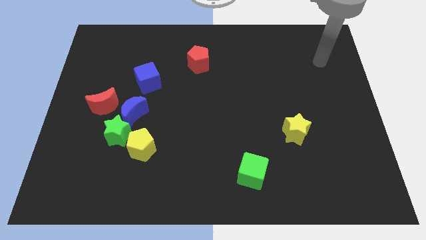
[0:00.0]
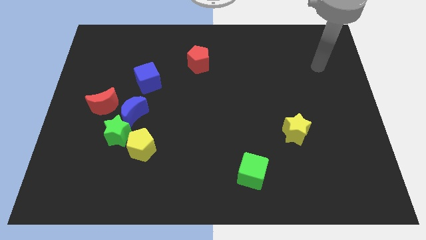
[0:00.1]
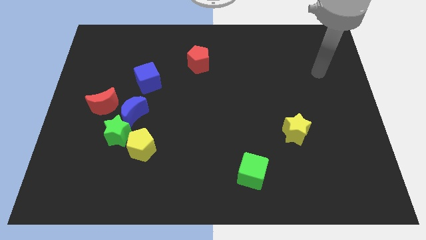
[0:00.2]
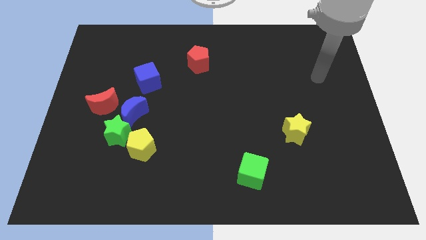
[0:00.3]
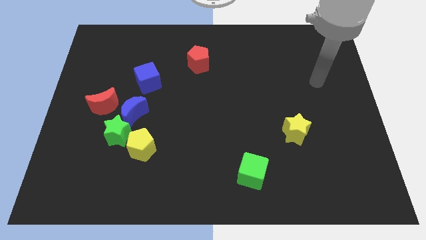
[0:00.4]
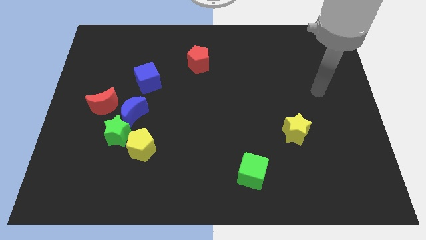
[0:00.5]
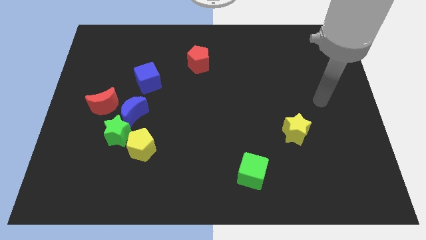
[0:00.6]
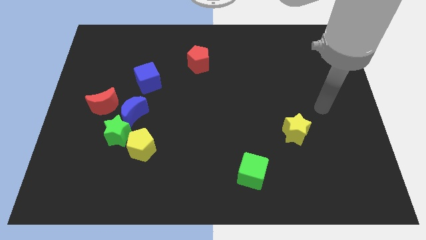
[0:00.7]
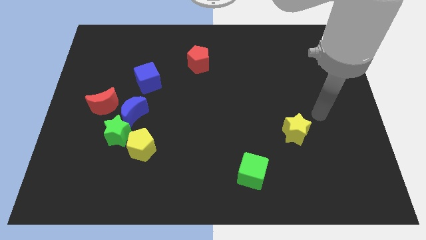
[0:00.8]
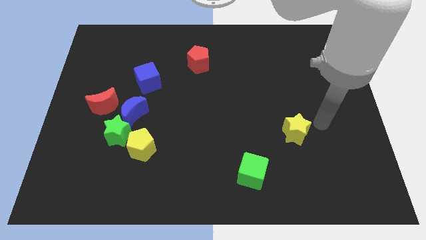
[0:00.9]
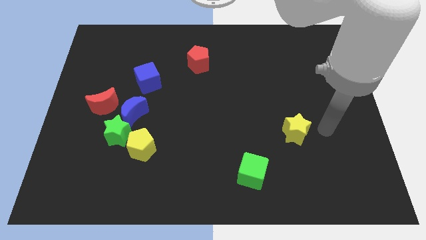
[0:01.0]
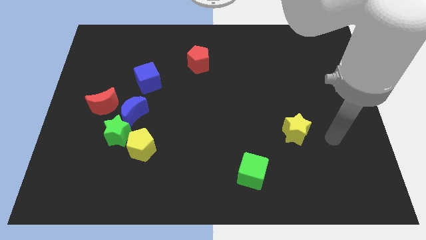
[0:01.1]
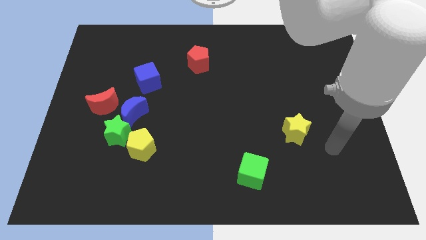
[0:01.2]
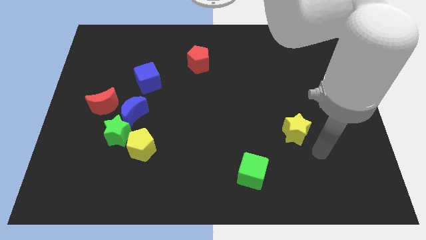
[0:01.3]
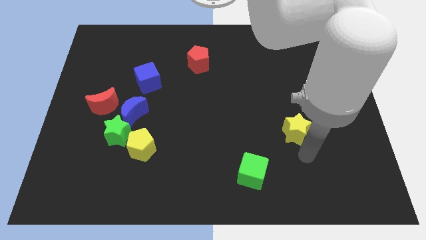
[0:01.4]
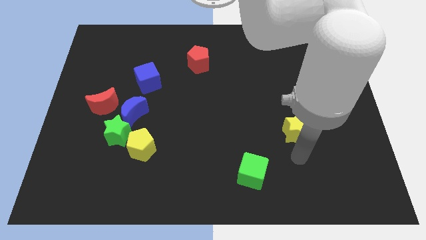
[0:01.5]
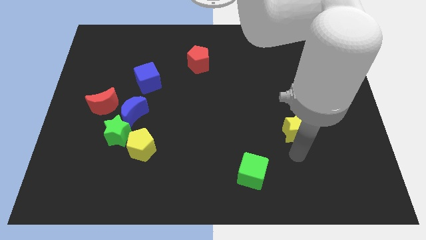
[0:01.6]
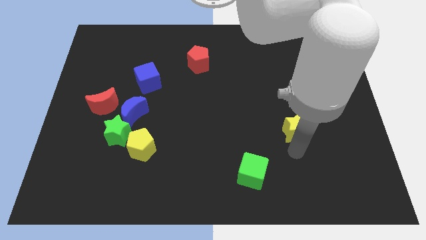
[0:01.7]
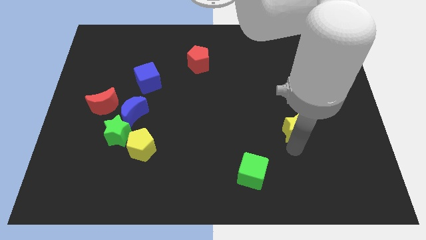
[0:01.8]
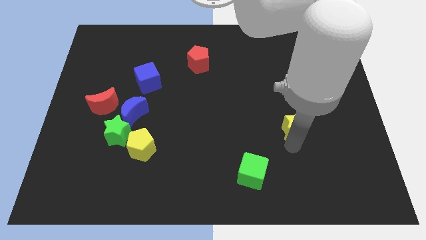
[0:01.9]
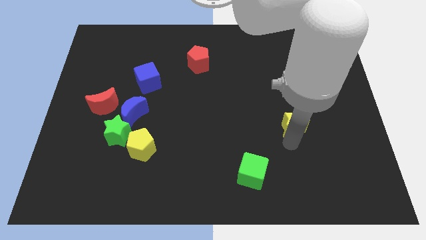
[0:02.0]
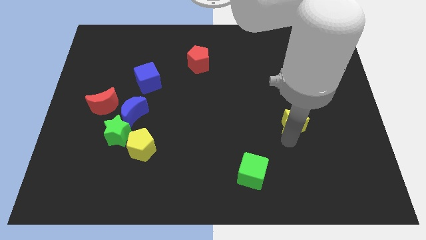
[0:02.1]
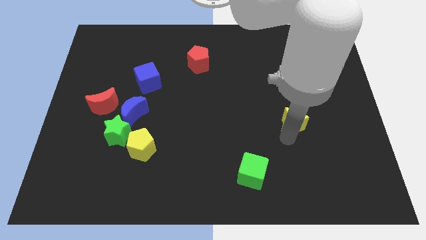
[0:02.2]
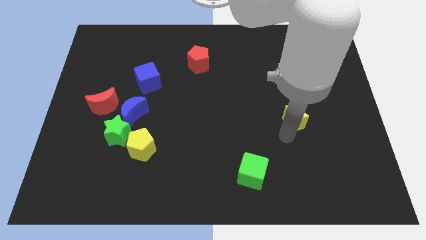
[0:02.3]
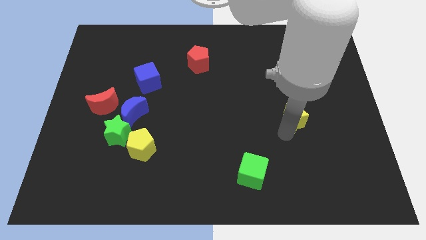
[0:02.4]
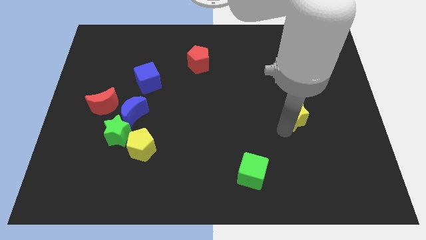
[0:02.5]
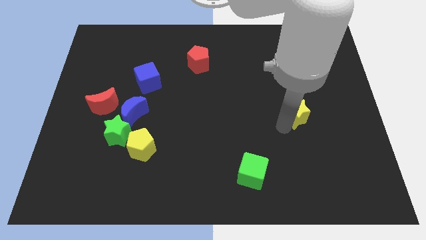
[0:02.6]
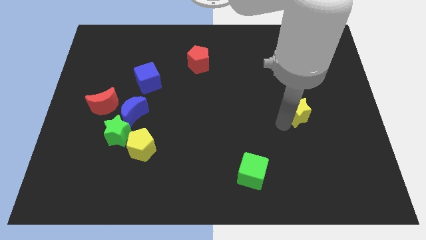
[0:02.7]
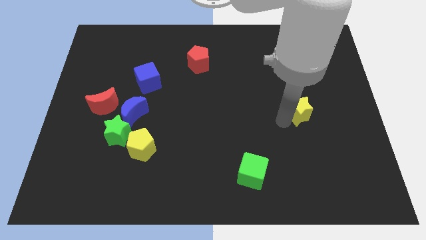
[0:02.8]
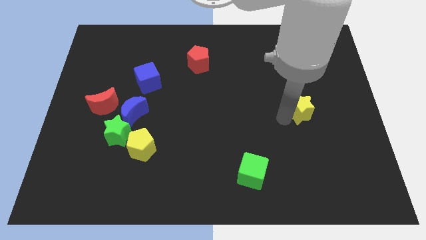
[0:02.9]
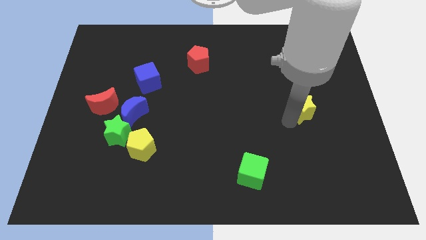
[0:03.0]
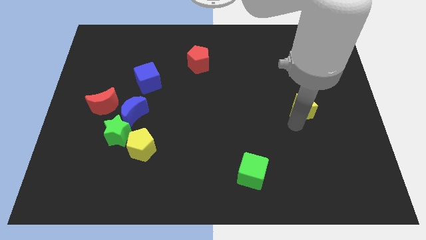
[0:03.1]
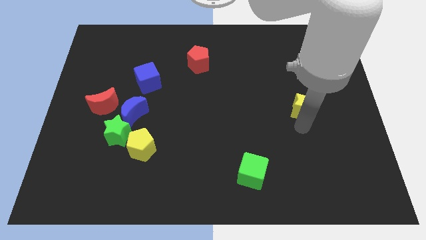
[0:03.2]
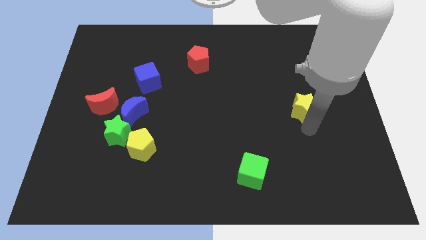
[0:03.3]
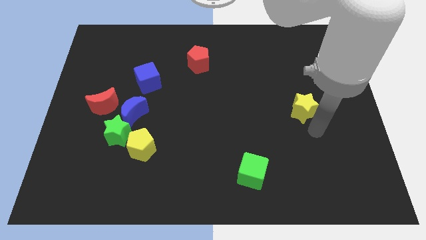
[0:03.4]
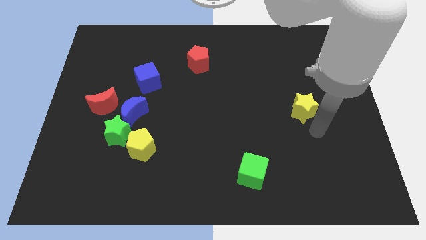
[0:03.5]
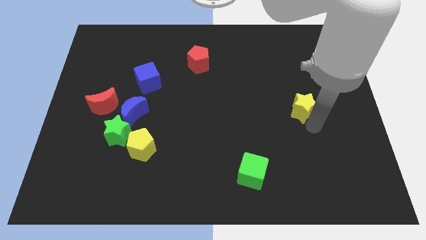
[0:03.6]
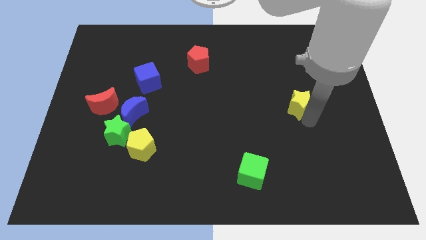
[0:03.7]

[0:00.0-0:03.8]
slightly slide the yellow star up

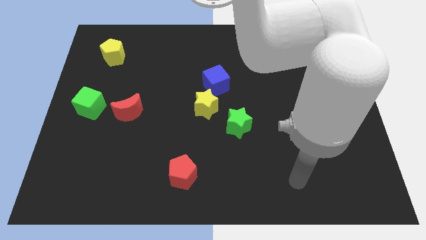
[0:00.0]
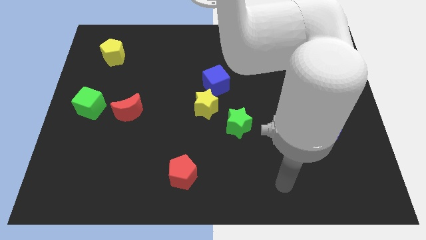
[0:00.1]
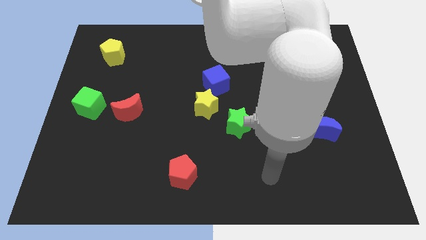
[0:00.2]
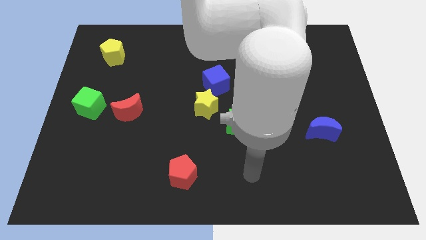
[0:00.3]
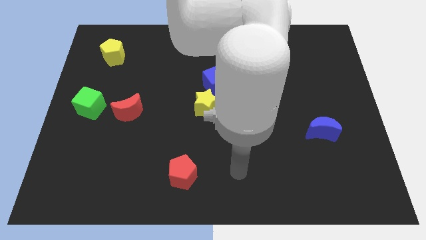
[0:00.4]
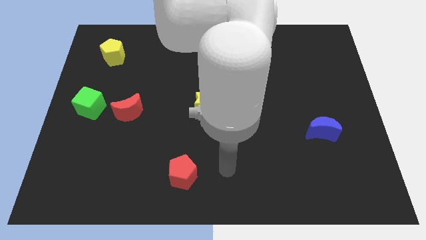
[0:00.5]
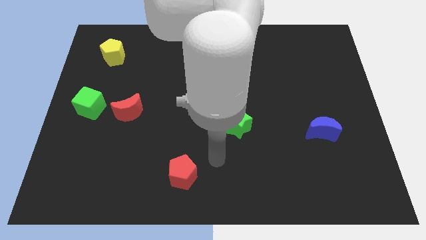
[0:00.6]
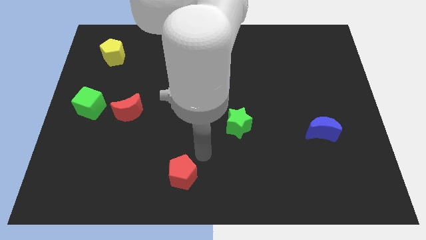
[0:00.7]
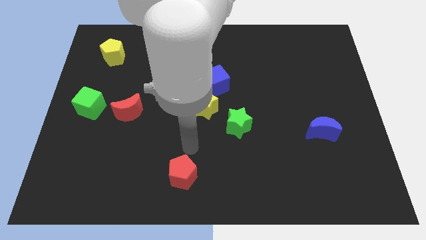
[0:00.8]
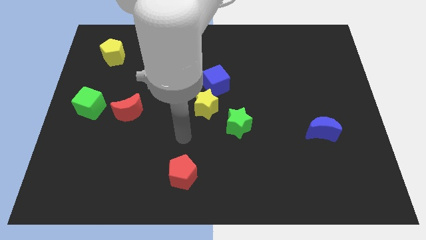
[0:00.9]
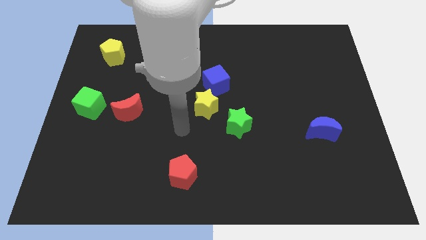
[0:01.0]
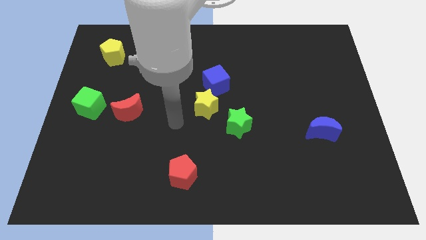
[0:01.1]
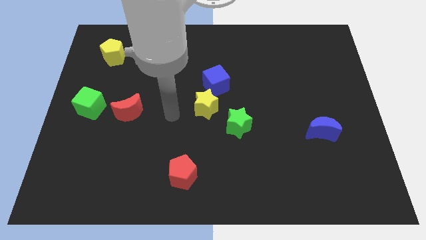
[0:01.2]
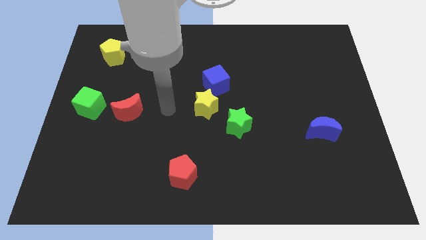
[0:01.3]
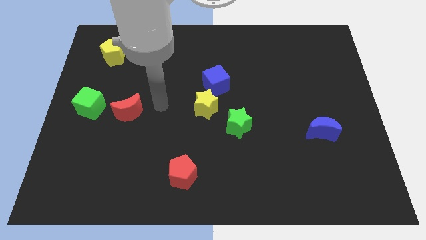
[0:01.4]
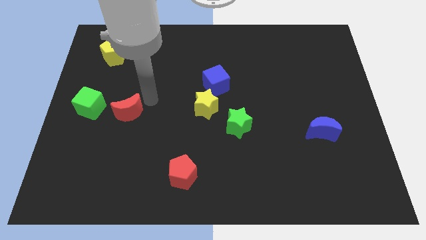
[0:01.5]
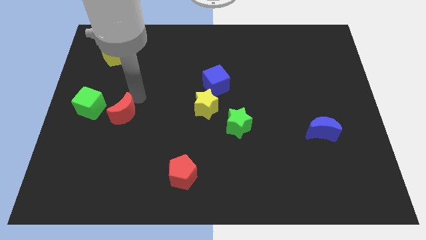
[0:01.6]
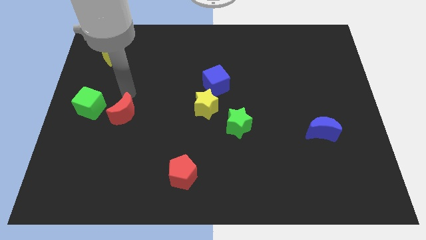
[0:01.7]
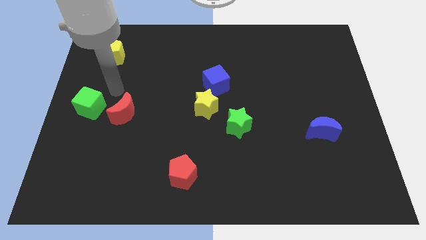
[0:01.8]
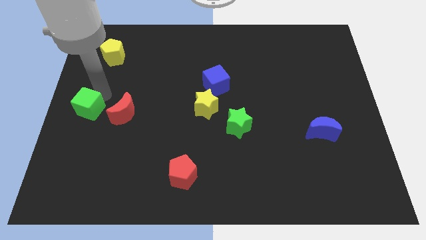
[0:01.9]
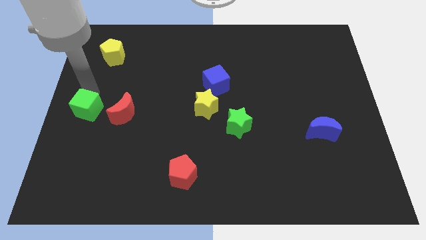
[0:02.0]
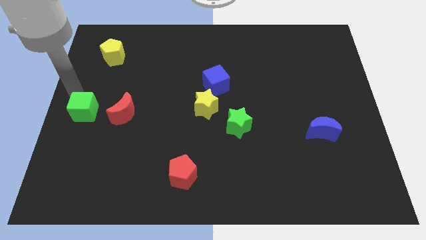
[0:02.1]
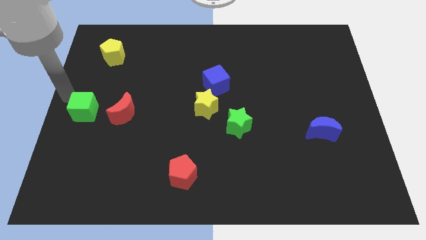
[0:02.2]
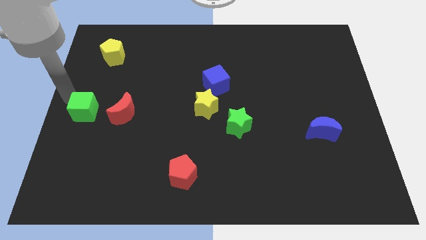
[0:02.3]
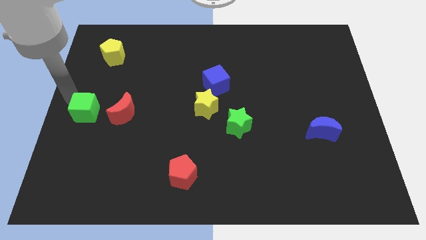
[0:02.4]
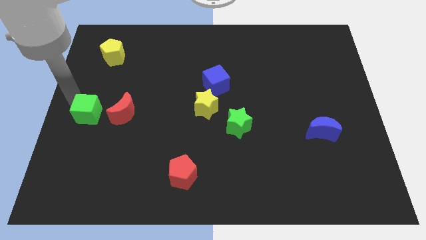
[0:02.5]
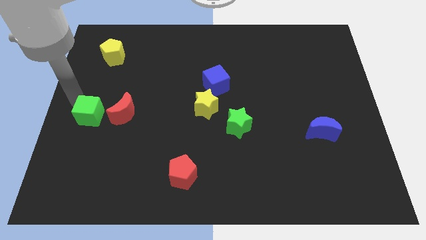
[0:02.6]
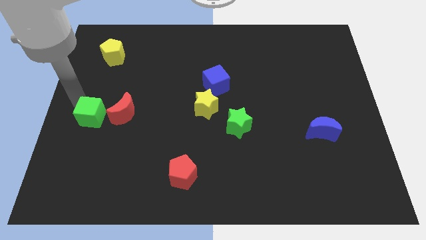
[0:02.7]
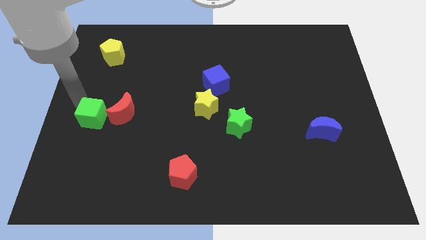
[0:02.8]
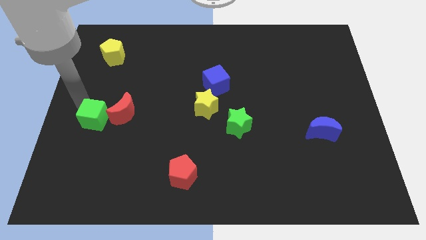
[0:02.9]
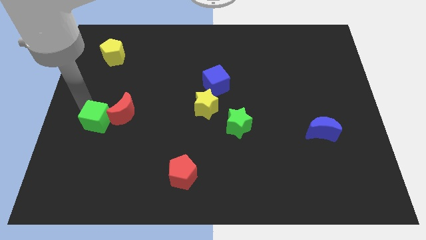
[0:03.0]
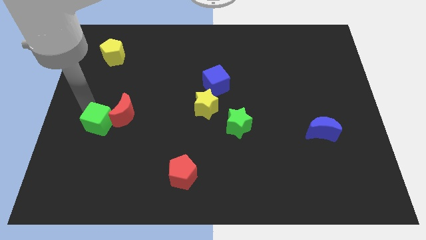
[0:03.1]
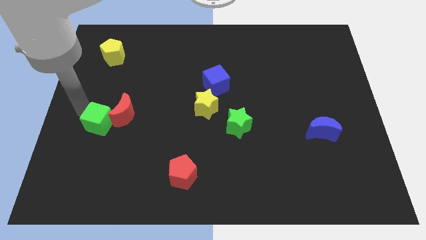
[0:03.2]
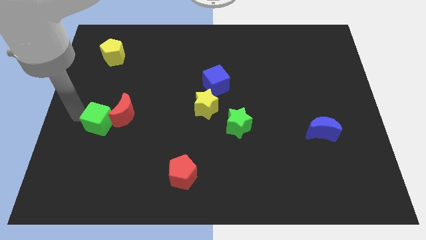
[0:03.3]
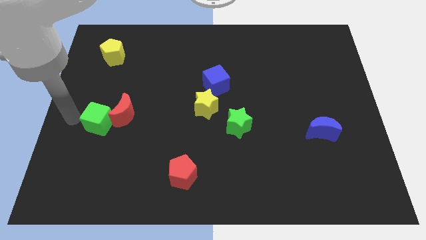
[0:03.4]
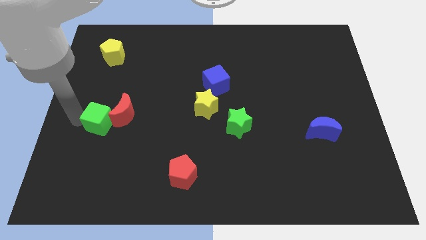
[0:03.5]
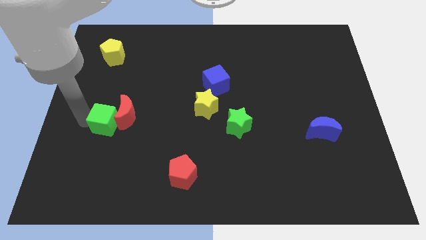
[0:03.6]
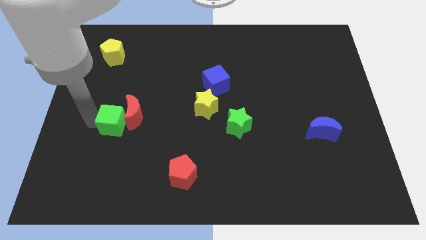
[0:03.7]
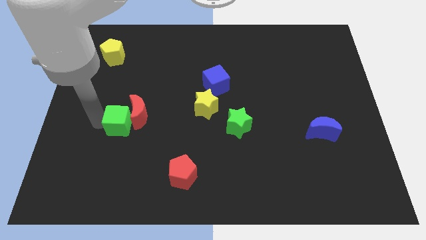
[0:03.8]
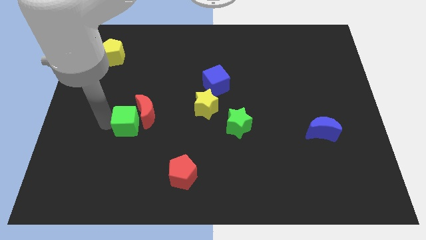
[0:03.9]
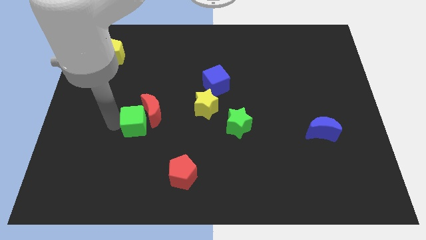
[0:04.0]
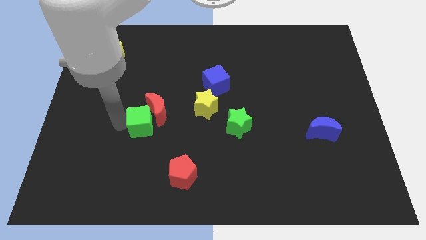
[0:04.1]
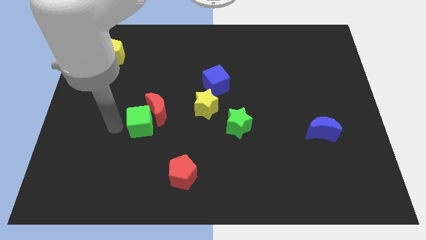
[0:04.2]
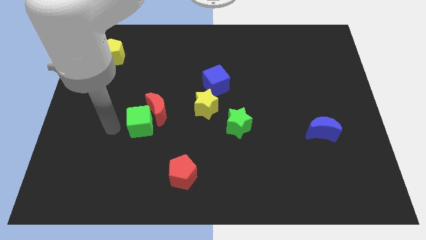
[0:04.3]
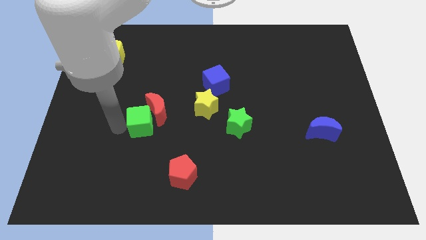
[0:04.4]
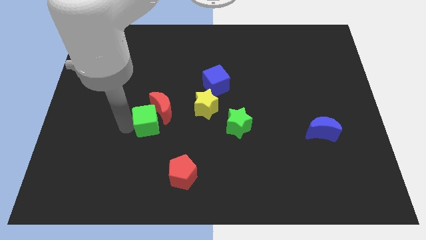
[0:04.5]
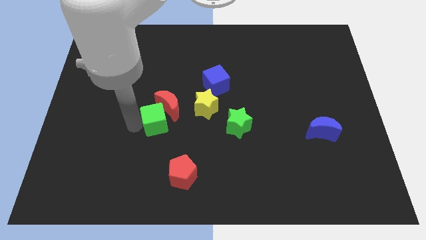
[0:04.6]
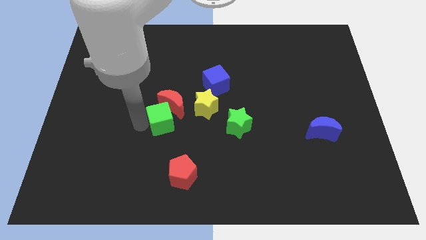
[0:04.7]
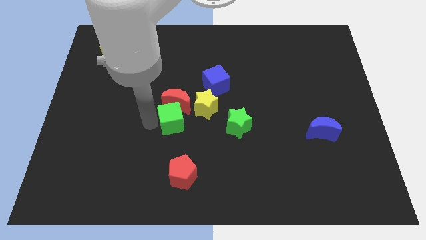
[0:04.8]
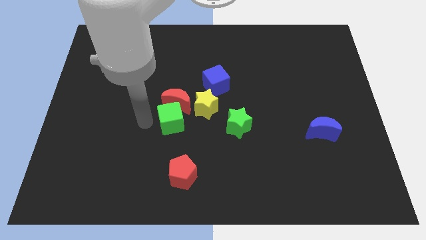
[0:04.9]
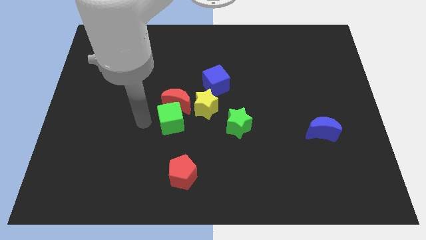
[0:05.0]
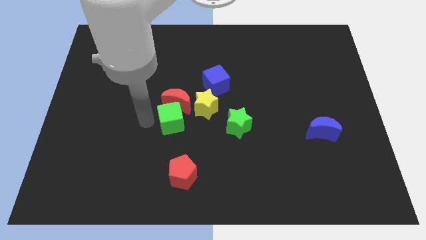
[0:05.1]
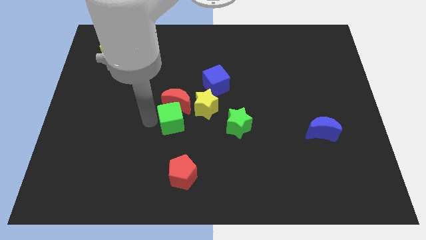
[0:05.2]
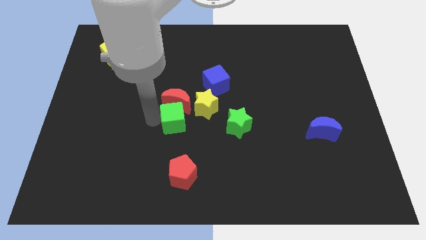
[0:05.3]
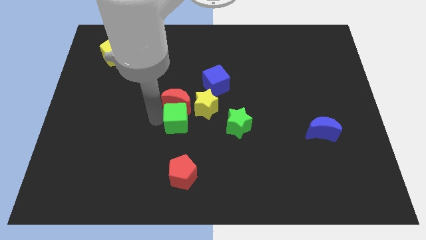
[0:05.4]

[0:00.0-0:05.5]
push the green cube to the right
